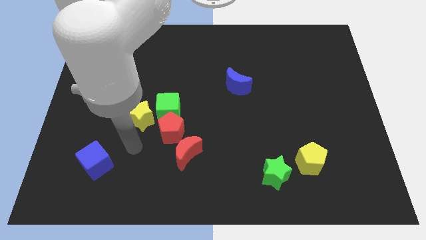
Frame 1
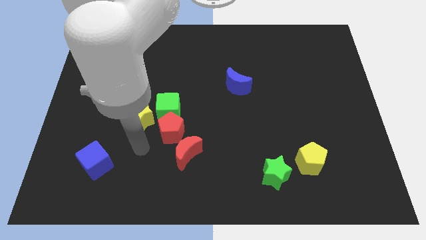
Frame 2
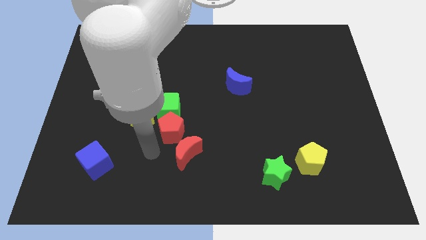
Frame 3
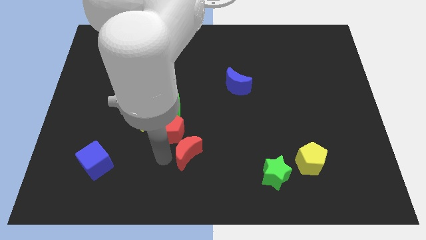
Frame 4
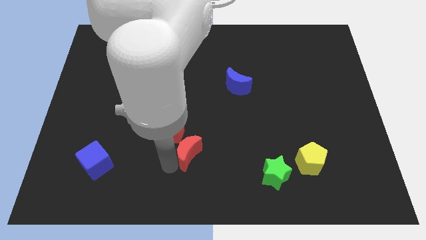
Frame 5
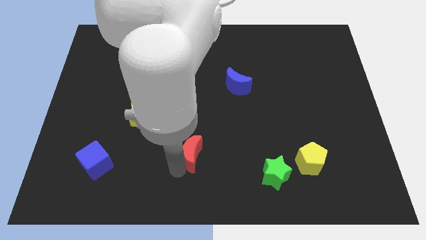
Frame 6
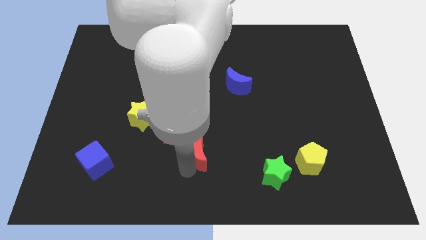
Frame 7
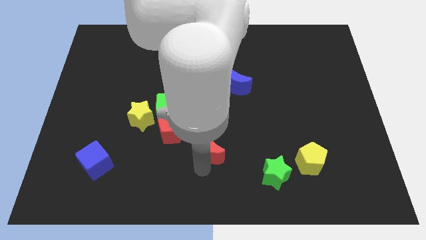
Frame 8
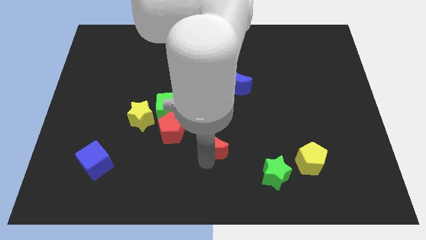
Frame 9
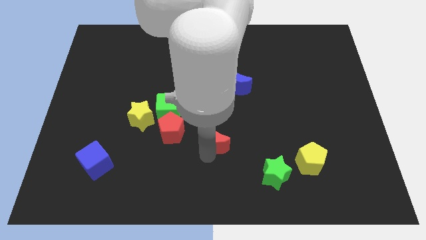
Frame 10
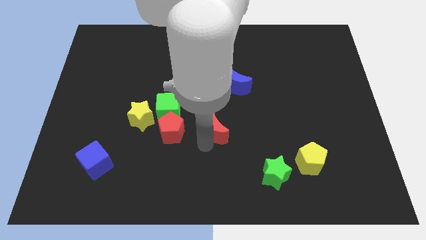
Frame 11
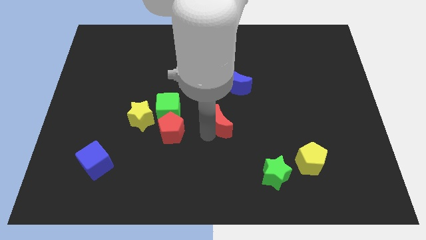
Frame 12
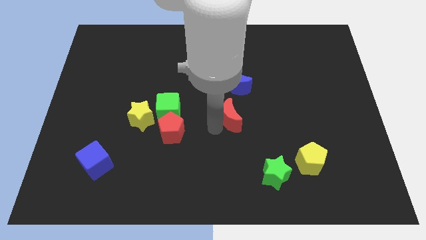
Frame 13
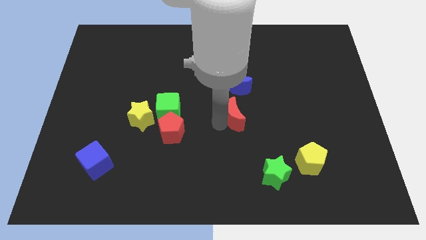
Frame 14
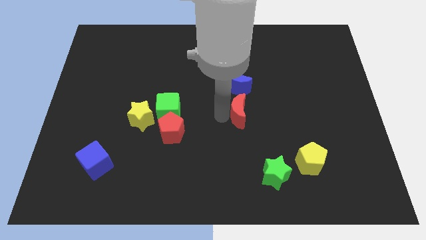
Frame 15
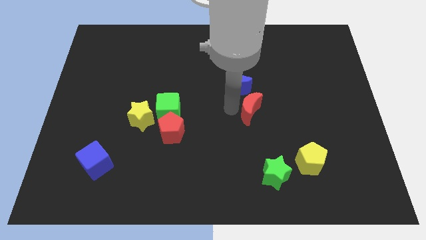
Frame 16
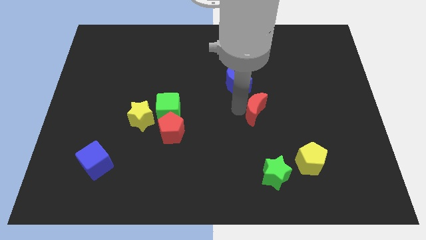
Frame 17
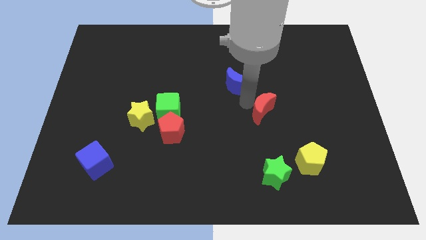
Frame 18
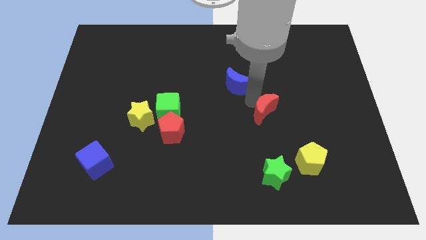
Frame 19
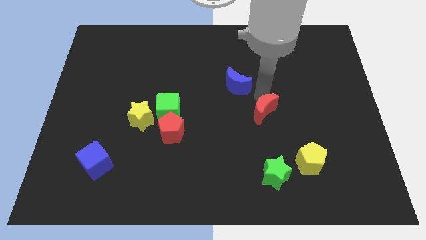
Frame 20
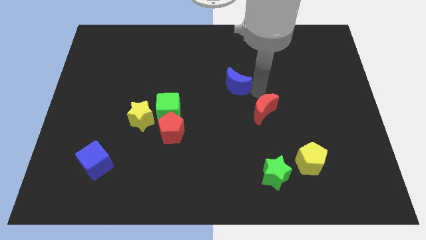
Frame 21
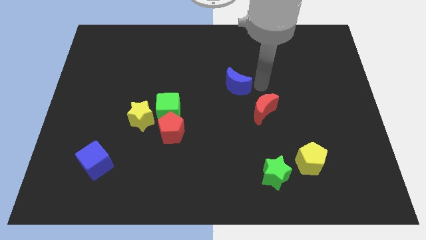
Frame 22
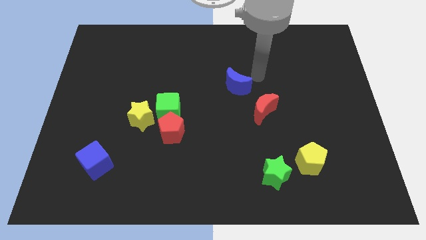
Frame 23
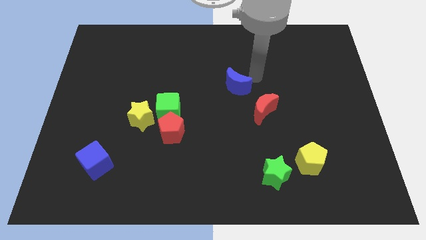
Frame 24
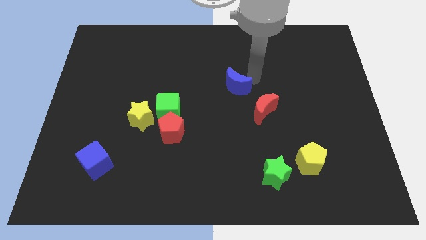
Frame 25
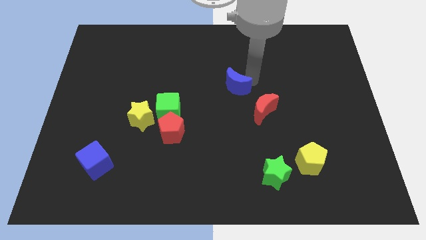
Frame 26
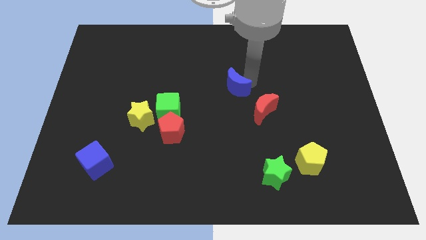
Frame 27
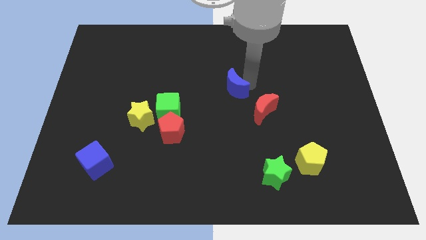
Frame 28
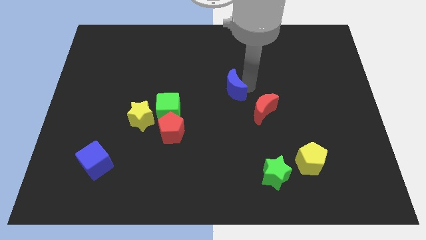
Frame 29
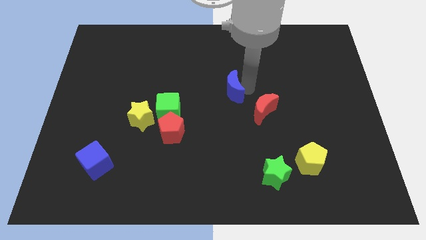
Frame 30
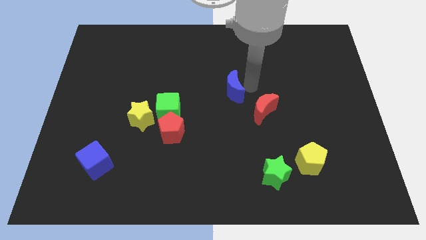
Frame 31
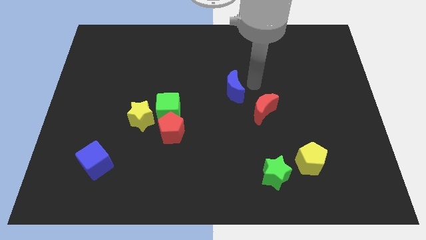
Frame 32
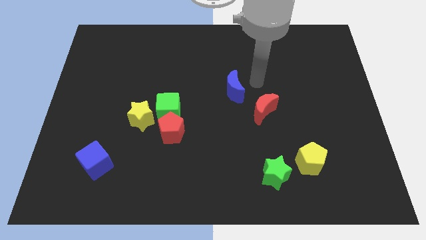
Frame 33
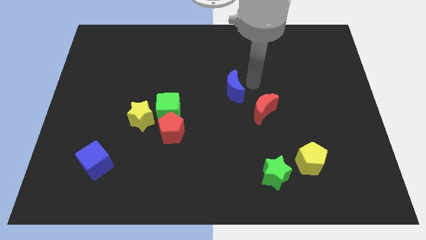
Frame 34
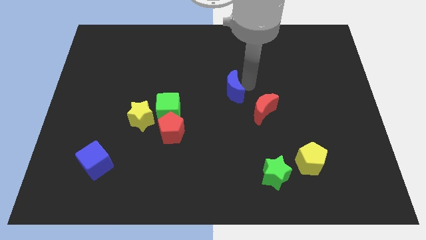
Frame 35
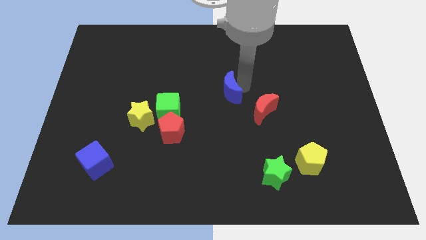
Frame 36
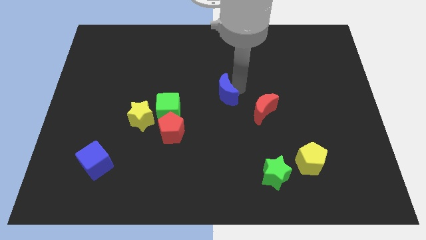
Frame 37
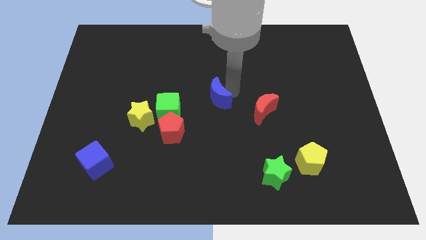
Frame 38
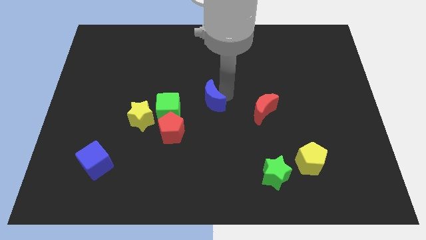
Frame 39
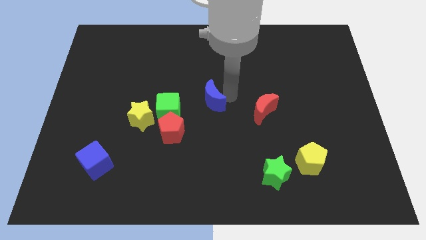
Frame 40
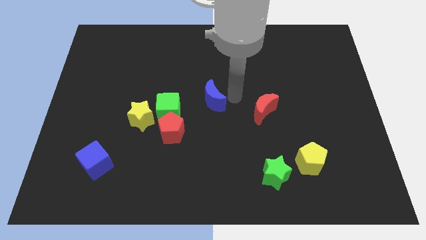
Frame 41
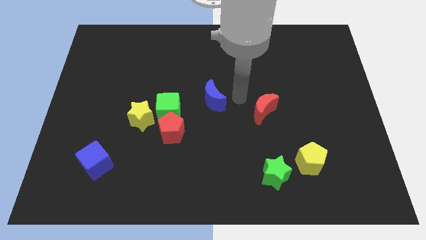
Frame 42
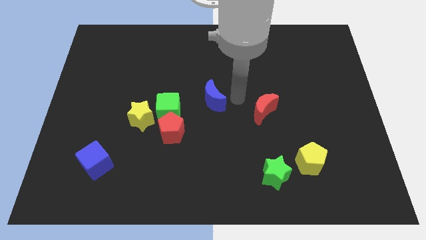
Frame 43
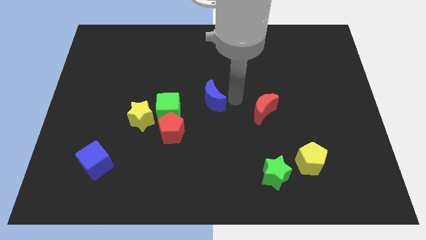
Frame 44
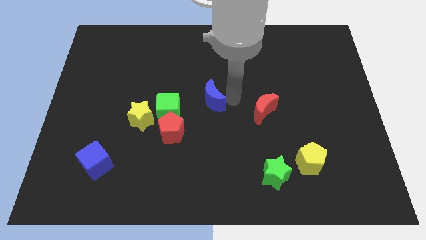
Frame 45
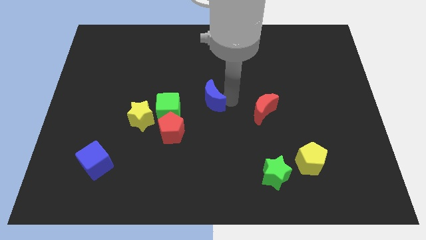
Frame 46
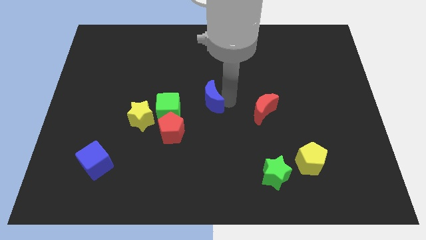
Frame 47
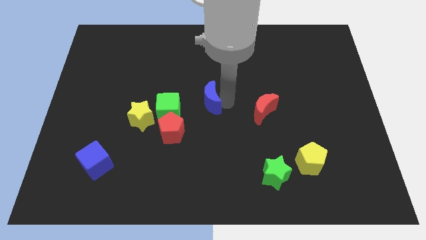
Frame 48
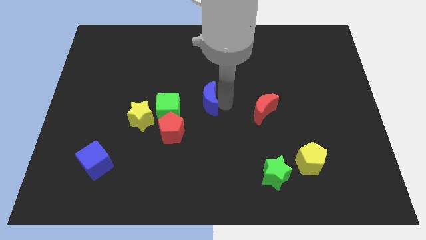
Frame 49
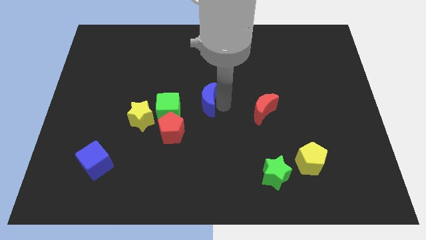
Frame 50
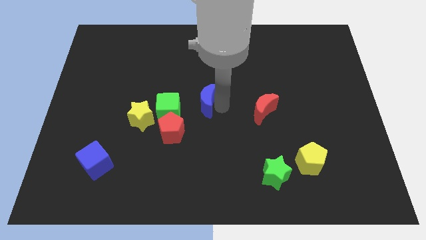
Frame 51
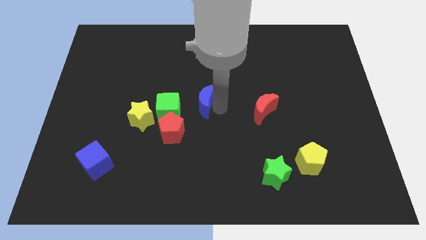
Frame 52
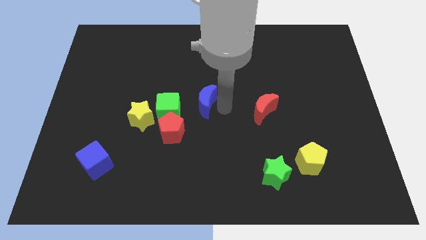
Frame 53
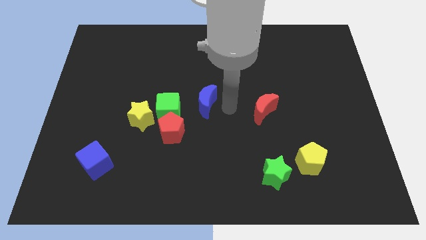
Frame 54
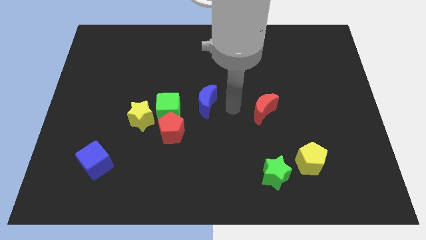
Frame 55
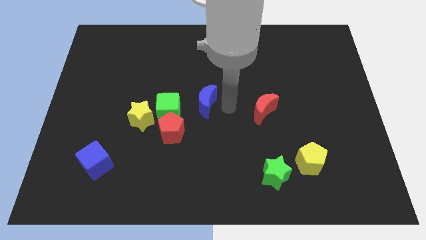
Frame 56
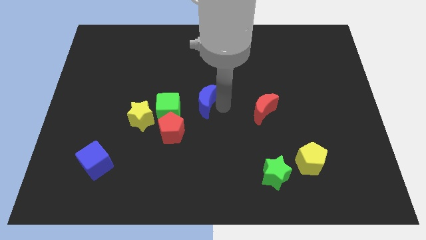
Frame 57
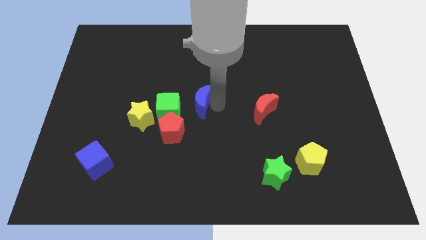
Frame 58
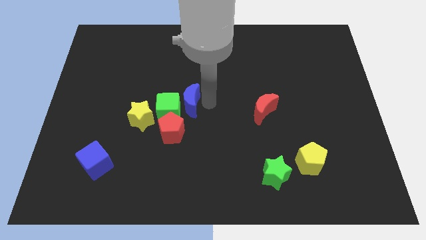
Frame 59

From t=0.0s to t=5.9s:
push the blue moon to the green cube
